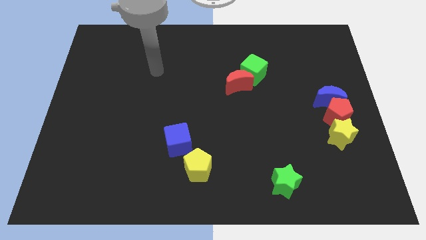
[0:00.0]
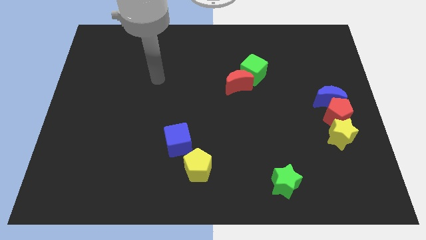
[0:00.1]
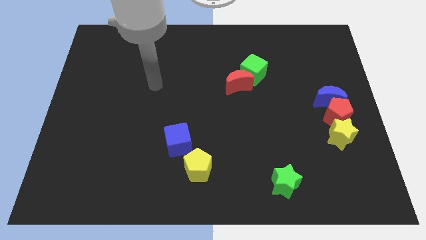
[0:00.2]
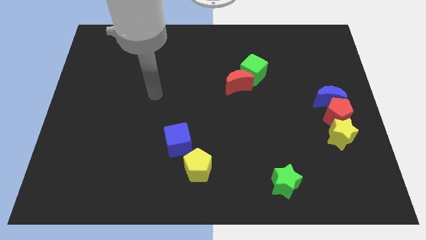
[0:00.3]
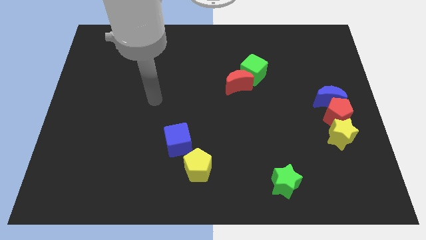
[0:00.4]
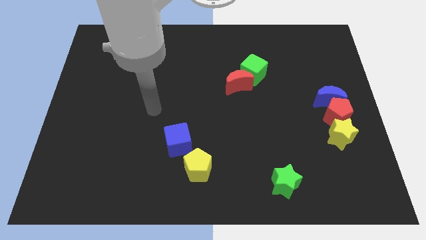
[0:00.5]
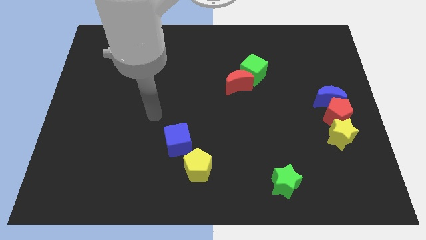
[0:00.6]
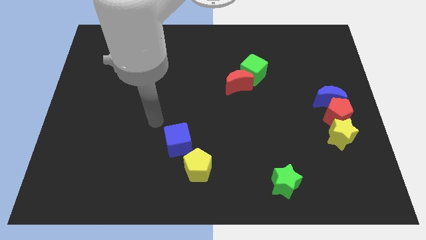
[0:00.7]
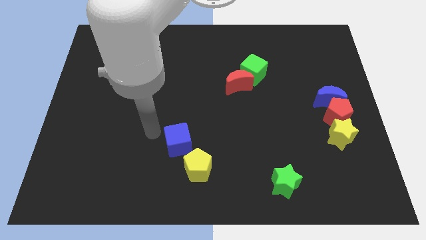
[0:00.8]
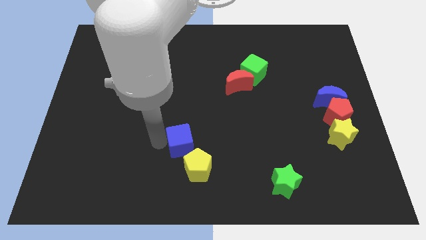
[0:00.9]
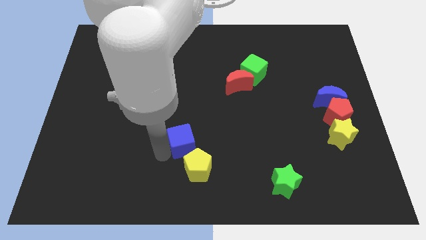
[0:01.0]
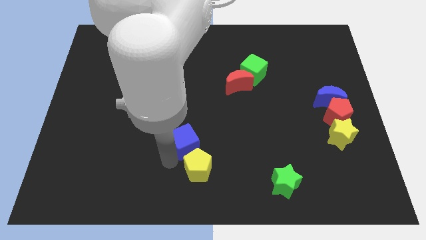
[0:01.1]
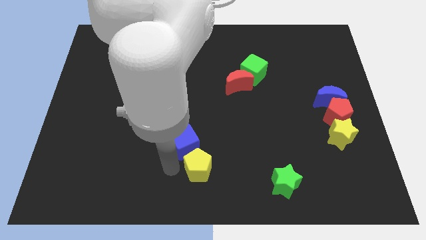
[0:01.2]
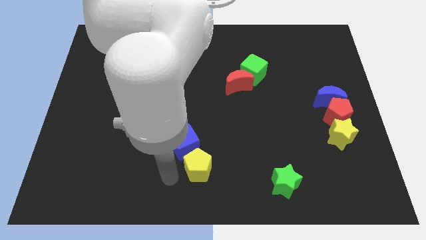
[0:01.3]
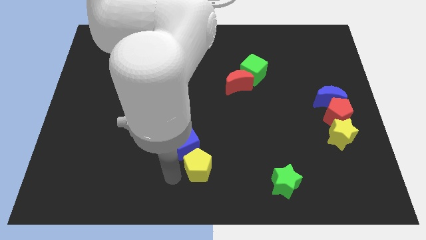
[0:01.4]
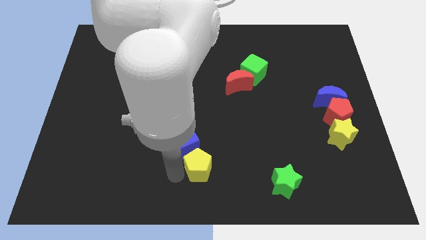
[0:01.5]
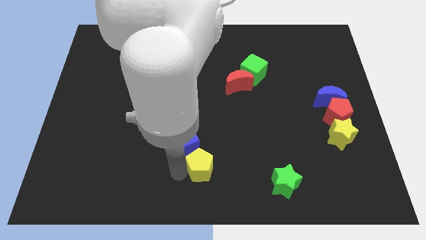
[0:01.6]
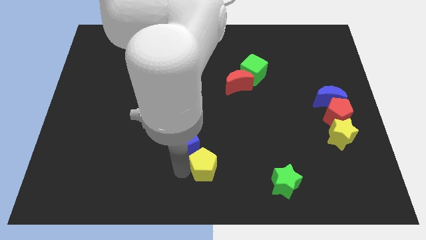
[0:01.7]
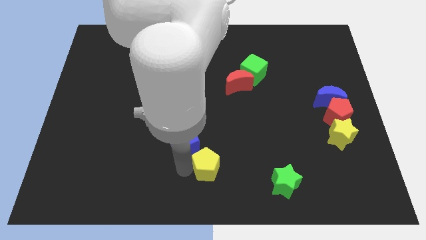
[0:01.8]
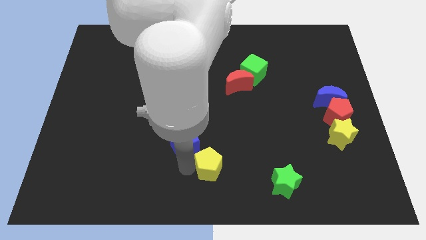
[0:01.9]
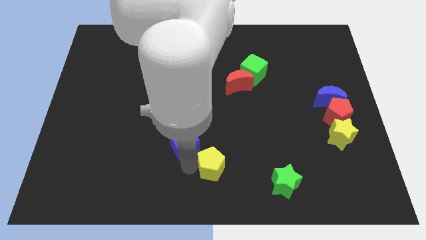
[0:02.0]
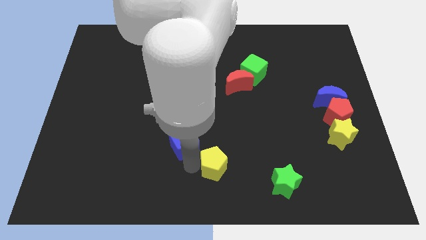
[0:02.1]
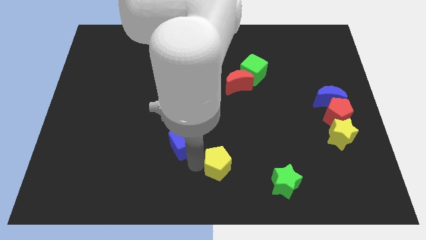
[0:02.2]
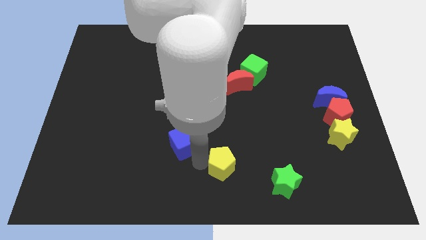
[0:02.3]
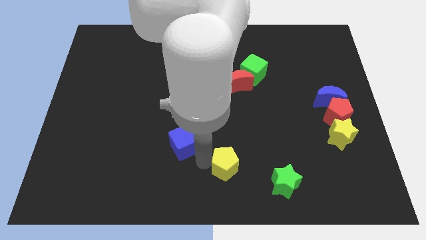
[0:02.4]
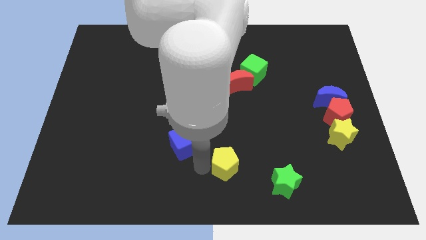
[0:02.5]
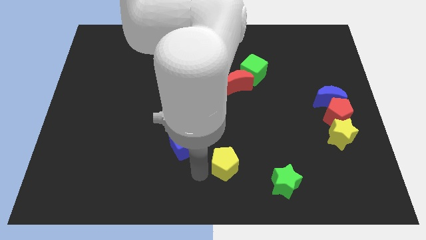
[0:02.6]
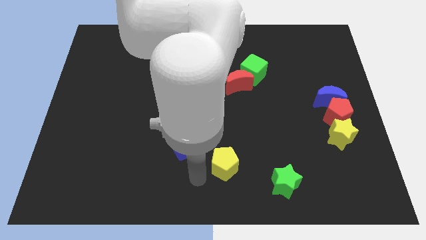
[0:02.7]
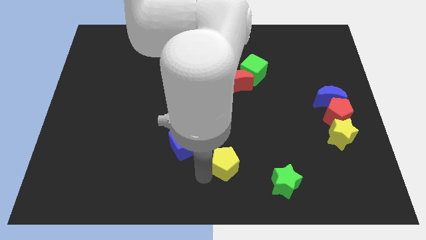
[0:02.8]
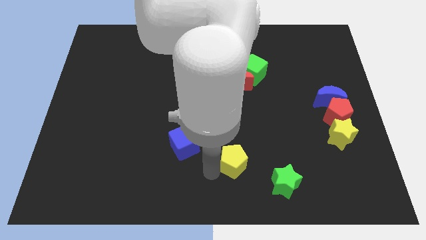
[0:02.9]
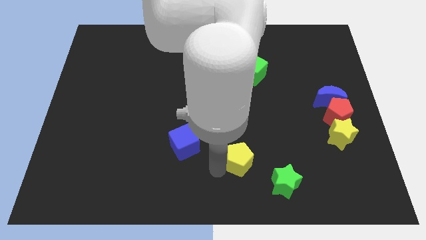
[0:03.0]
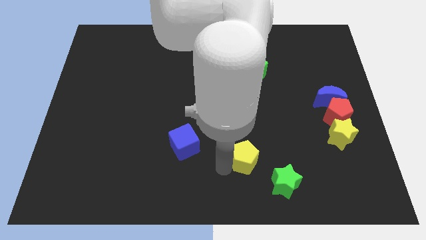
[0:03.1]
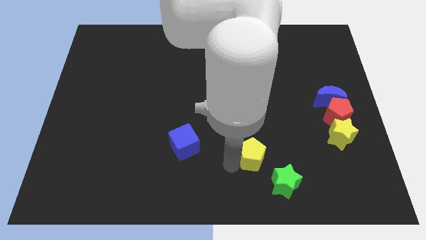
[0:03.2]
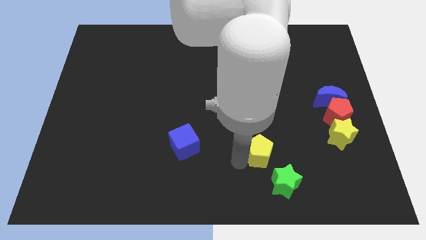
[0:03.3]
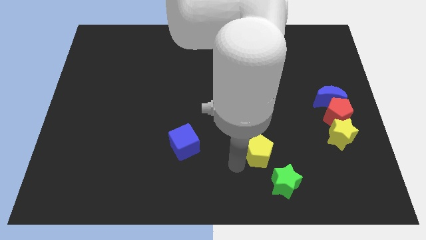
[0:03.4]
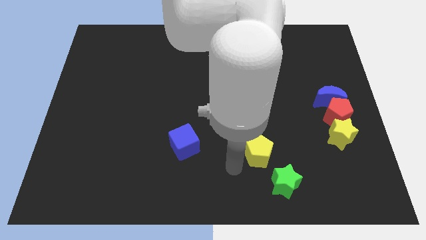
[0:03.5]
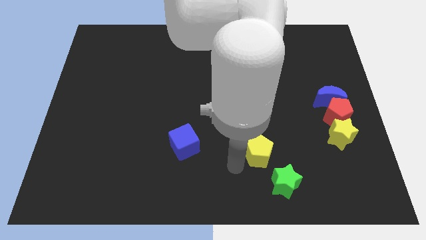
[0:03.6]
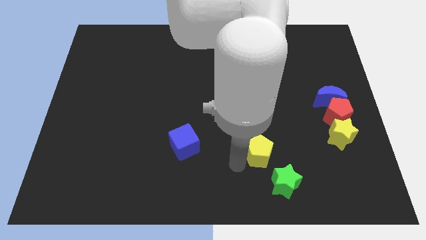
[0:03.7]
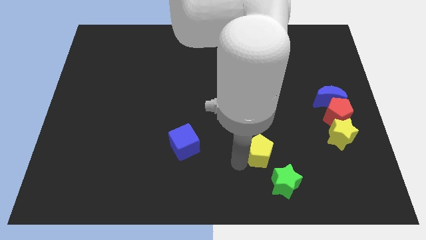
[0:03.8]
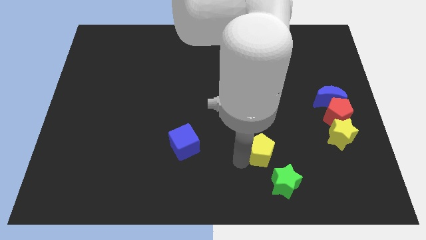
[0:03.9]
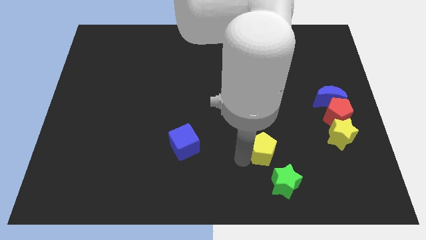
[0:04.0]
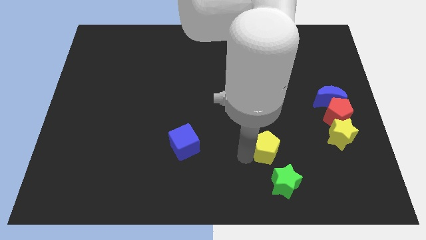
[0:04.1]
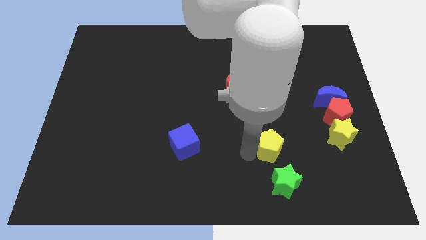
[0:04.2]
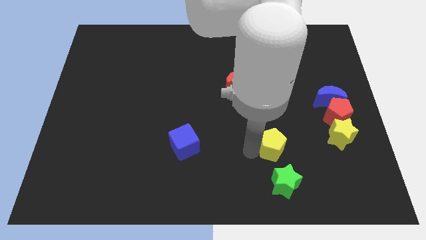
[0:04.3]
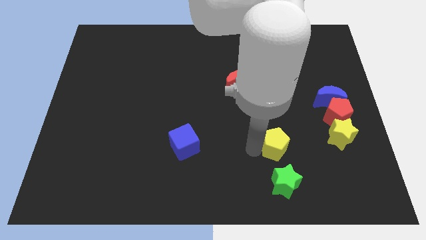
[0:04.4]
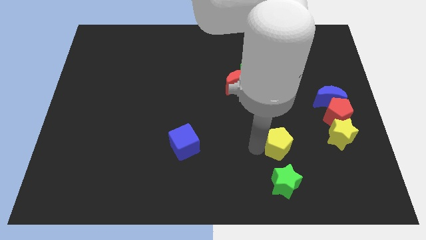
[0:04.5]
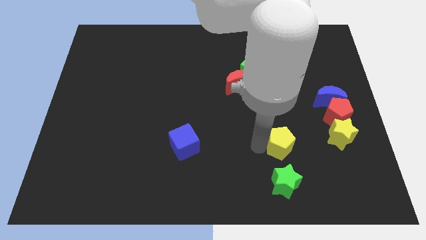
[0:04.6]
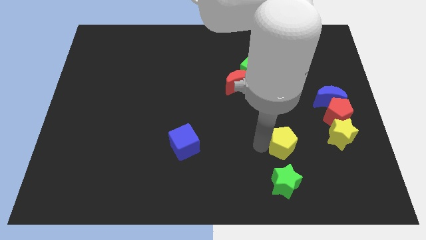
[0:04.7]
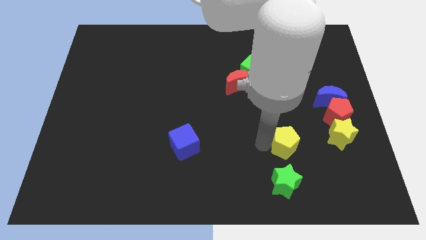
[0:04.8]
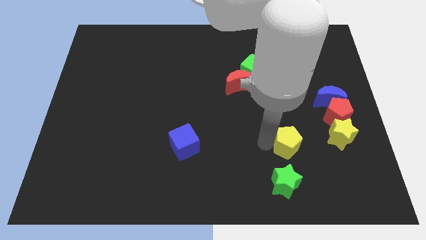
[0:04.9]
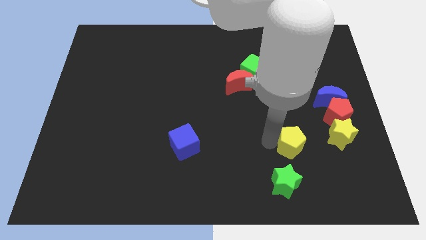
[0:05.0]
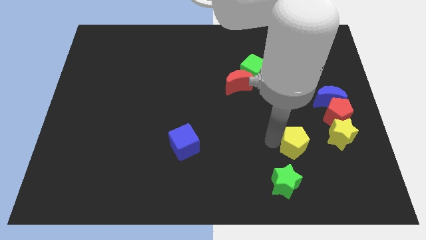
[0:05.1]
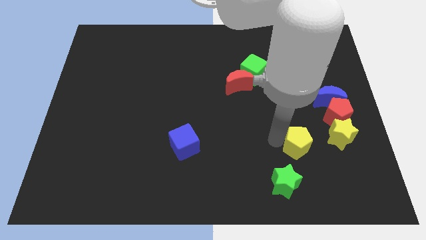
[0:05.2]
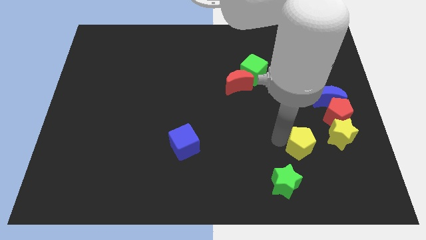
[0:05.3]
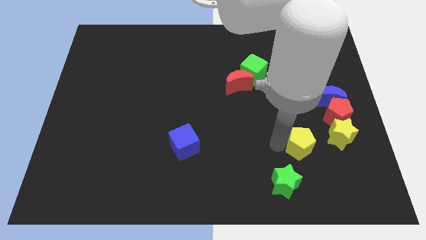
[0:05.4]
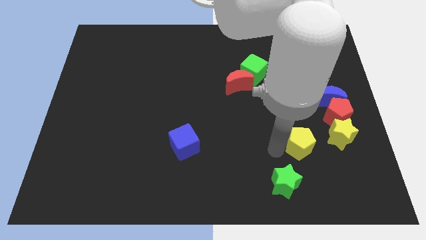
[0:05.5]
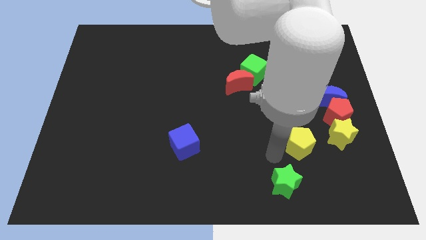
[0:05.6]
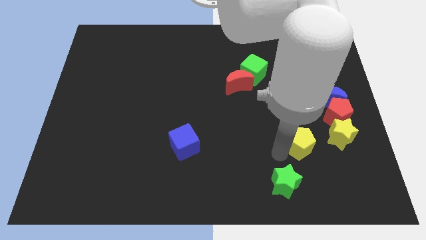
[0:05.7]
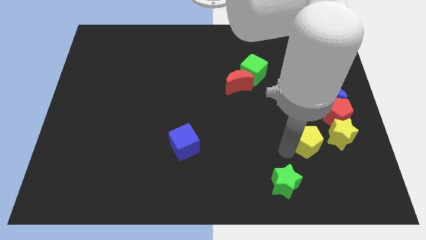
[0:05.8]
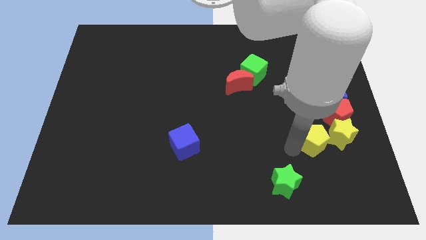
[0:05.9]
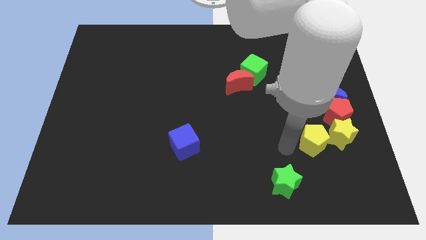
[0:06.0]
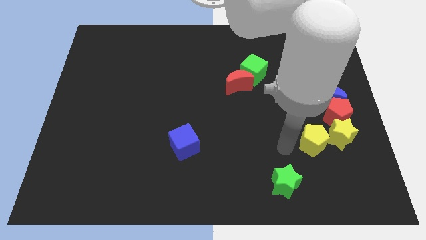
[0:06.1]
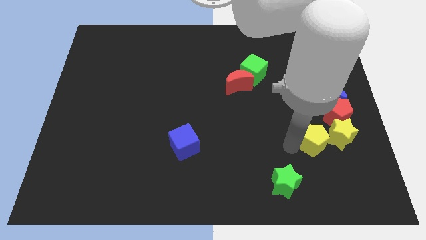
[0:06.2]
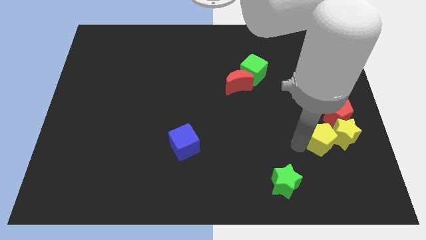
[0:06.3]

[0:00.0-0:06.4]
move the yellow pentagon to the yellow star
